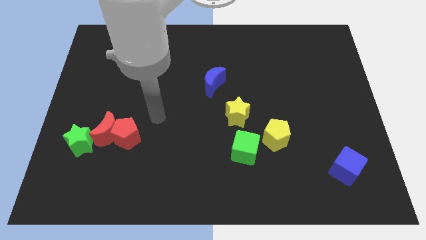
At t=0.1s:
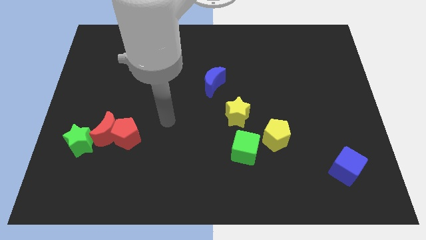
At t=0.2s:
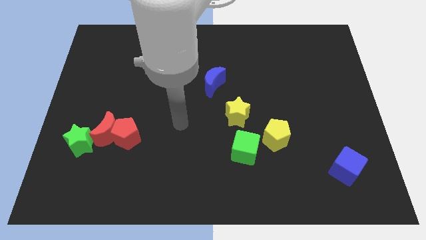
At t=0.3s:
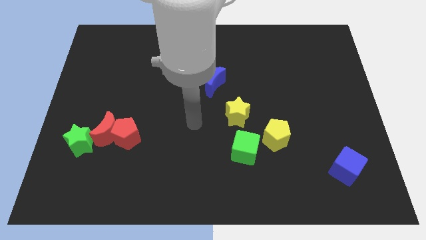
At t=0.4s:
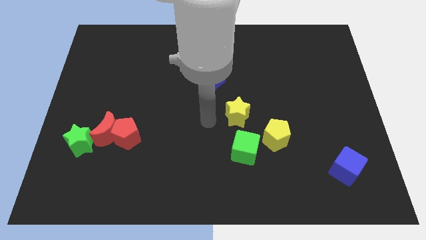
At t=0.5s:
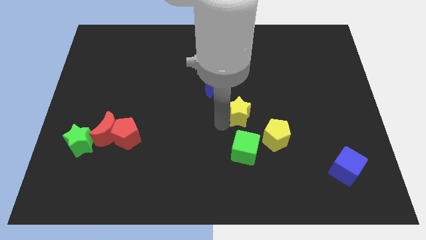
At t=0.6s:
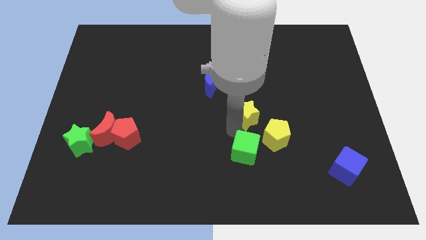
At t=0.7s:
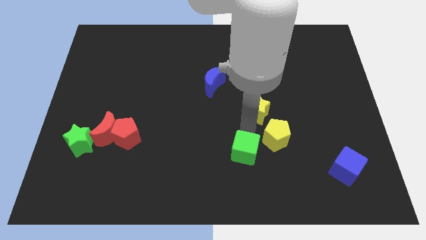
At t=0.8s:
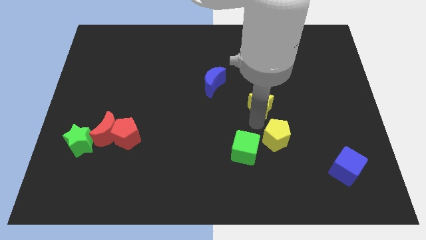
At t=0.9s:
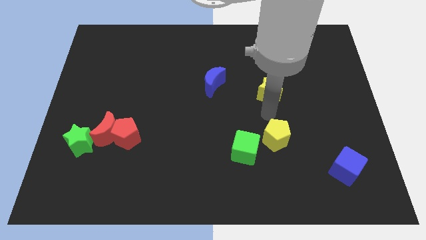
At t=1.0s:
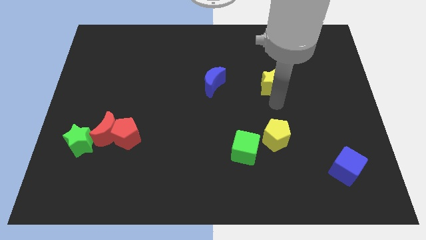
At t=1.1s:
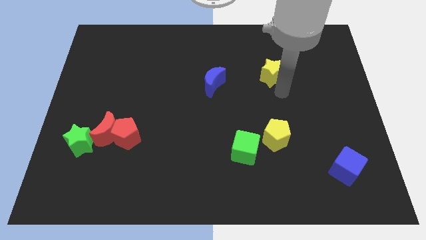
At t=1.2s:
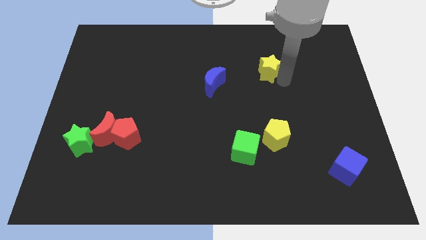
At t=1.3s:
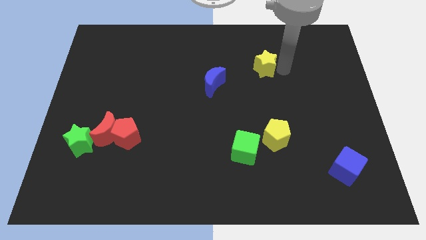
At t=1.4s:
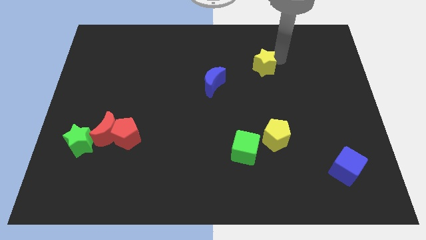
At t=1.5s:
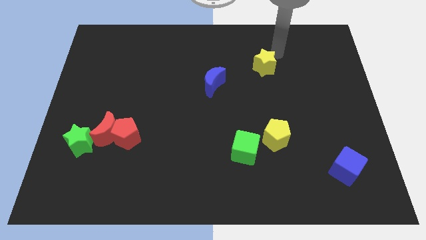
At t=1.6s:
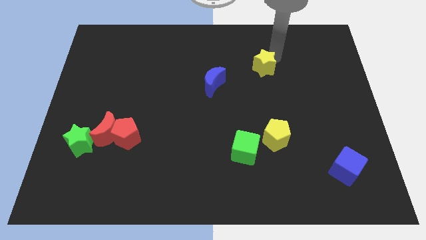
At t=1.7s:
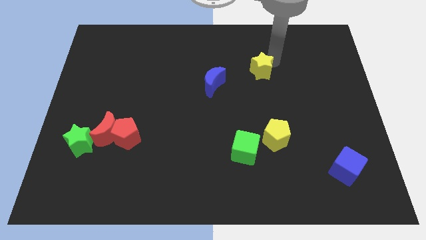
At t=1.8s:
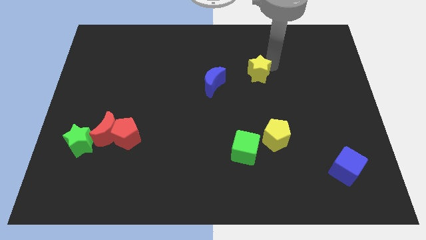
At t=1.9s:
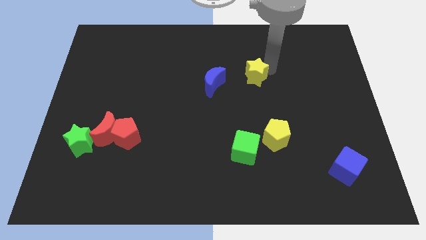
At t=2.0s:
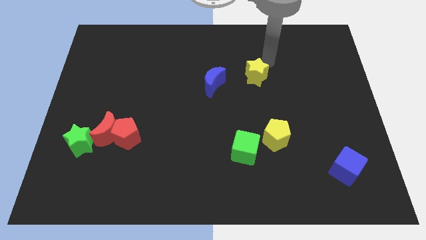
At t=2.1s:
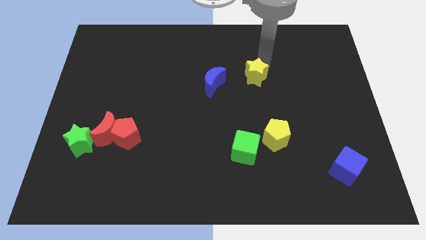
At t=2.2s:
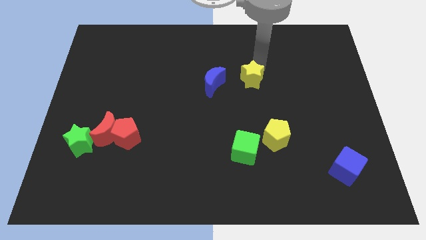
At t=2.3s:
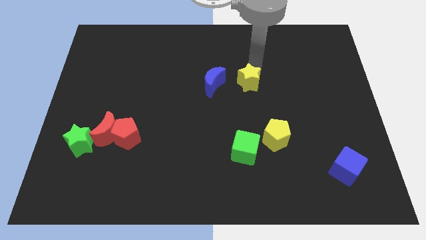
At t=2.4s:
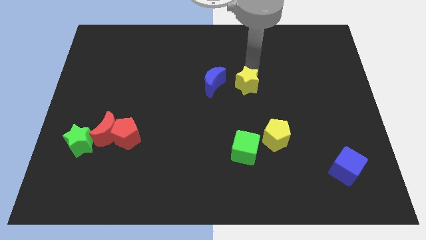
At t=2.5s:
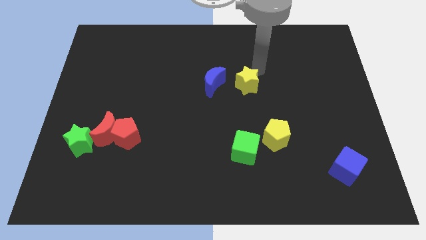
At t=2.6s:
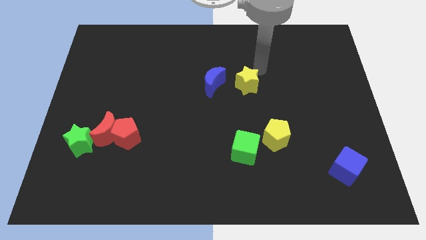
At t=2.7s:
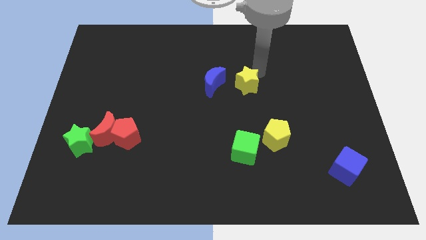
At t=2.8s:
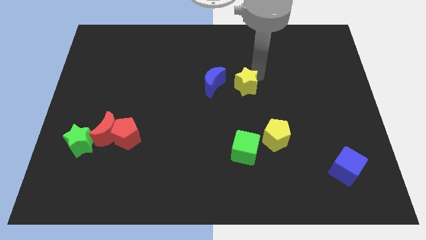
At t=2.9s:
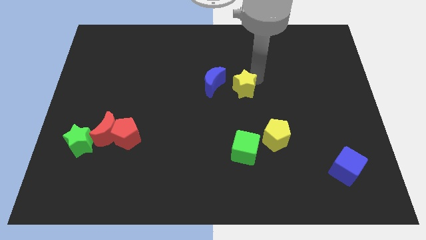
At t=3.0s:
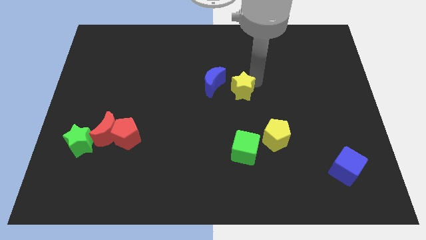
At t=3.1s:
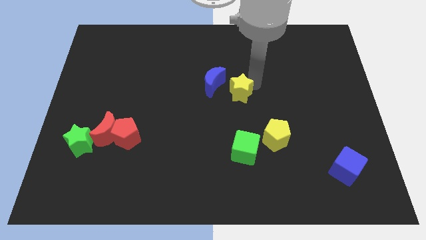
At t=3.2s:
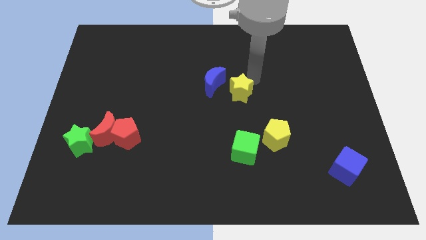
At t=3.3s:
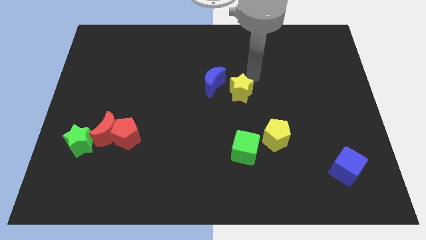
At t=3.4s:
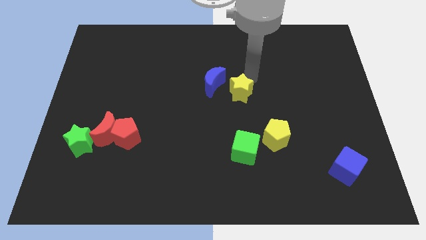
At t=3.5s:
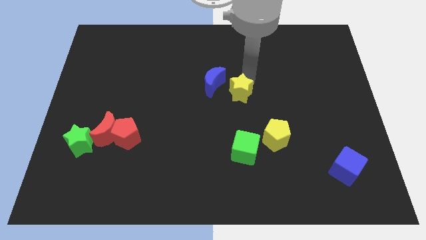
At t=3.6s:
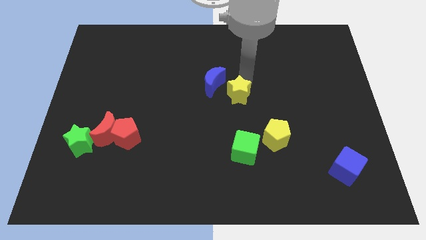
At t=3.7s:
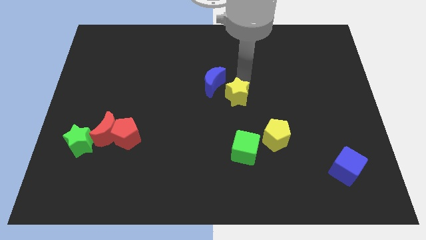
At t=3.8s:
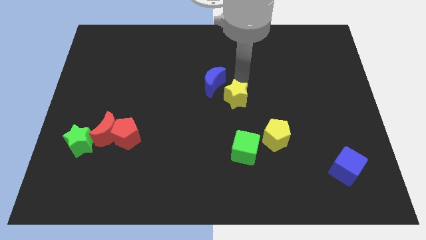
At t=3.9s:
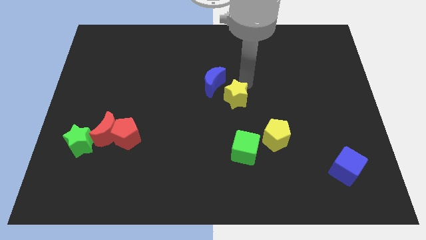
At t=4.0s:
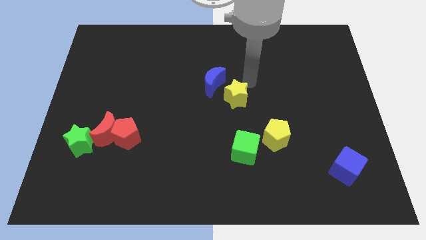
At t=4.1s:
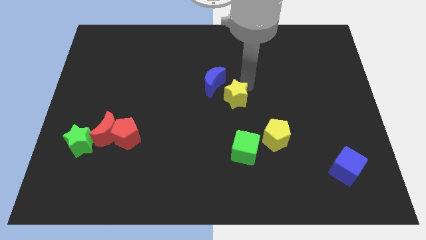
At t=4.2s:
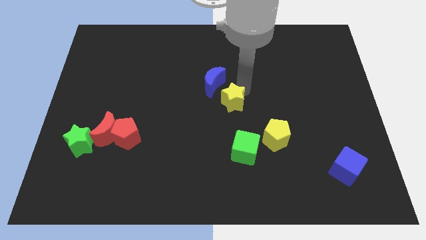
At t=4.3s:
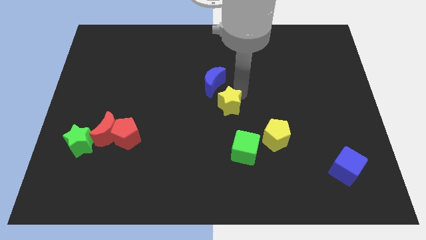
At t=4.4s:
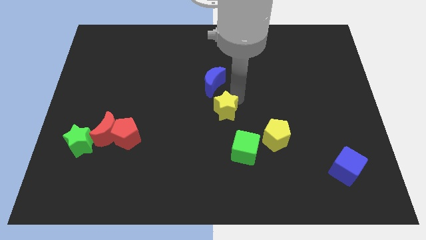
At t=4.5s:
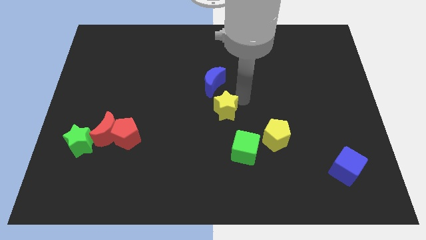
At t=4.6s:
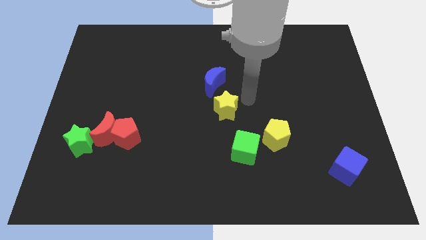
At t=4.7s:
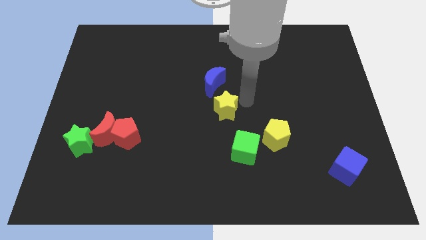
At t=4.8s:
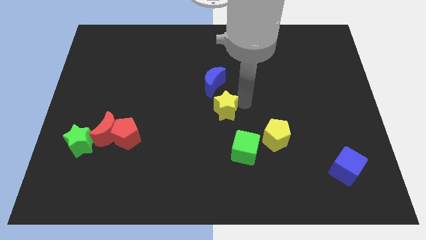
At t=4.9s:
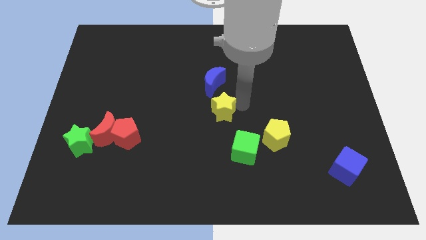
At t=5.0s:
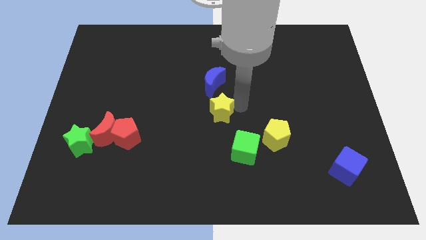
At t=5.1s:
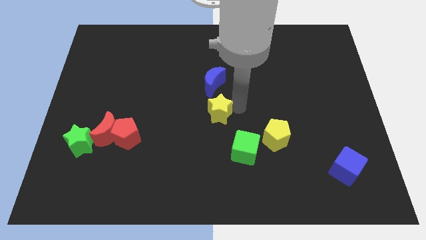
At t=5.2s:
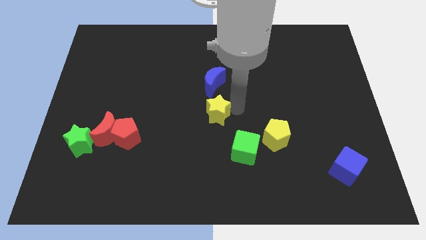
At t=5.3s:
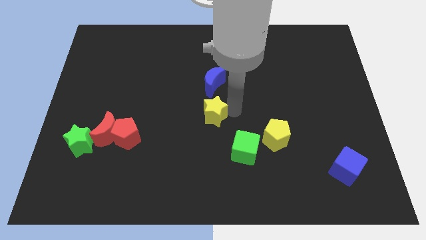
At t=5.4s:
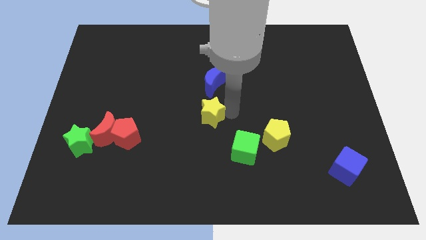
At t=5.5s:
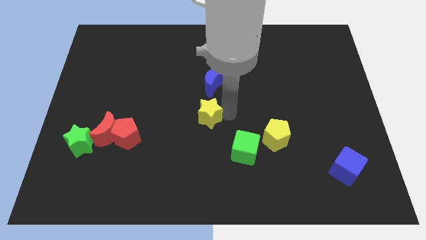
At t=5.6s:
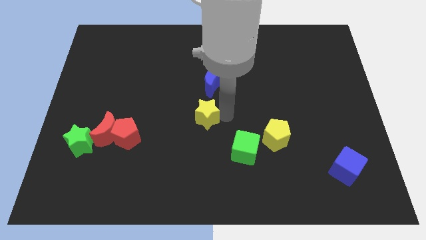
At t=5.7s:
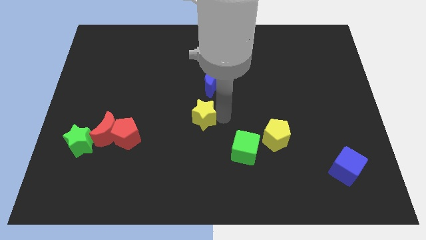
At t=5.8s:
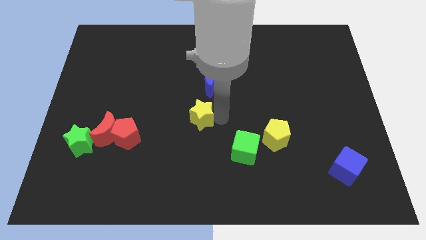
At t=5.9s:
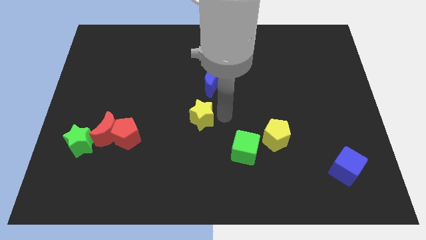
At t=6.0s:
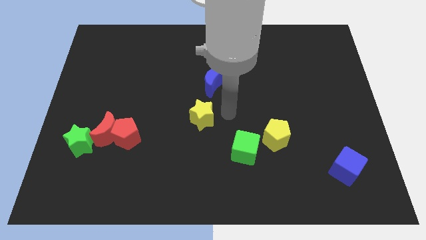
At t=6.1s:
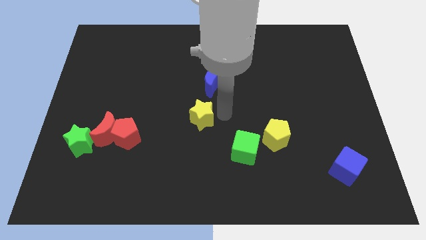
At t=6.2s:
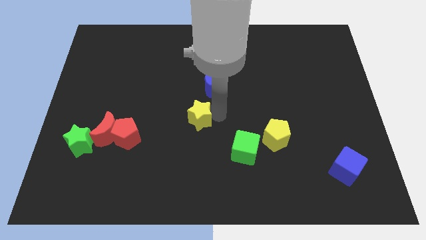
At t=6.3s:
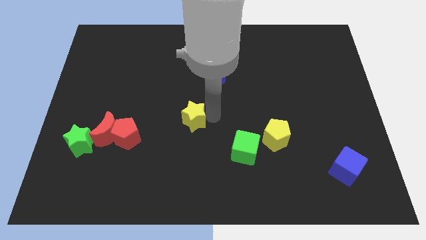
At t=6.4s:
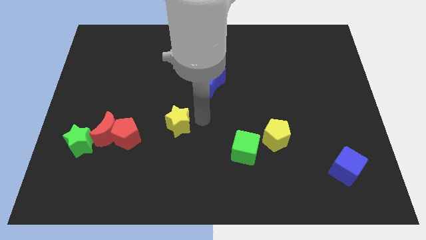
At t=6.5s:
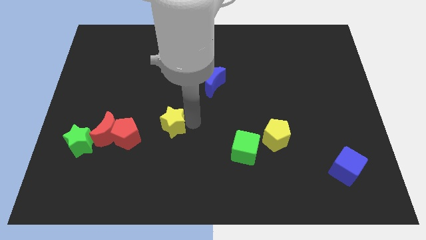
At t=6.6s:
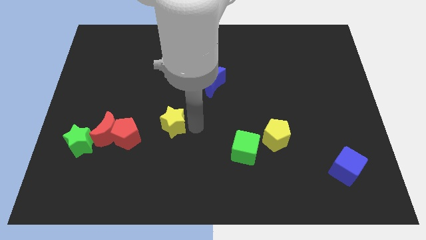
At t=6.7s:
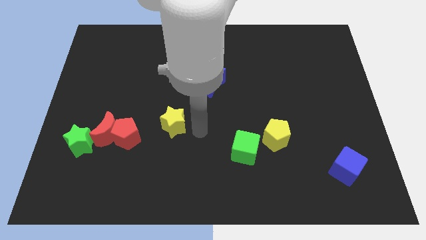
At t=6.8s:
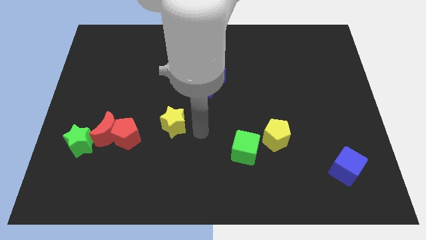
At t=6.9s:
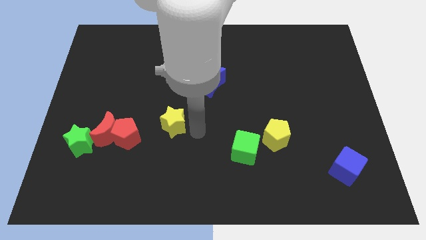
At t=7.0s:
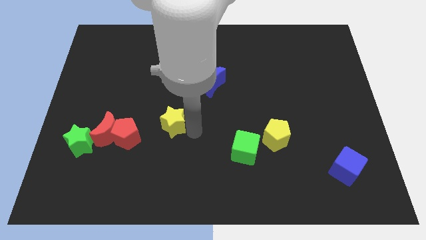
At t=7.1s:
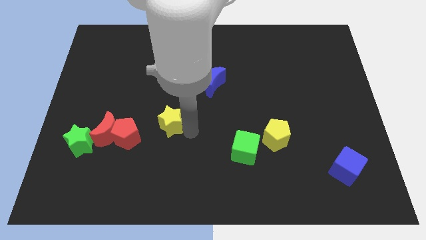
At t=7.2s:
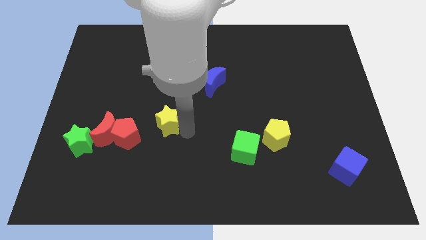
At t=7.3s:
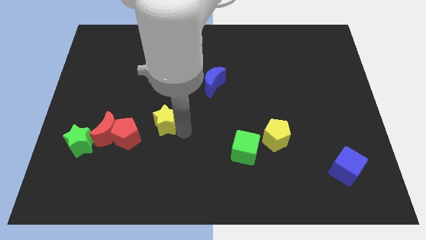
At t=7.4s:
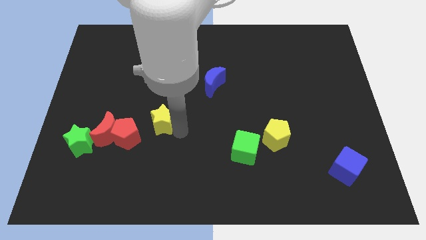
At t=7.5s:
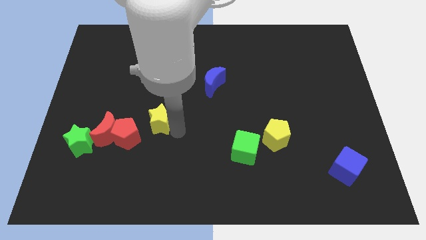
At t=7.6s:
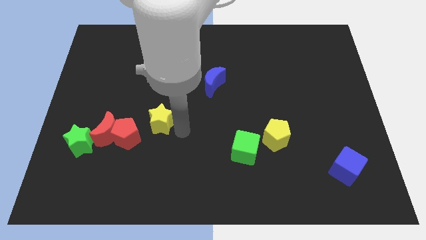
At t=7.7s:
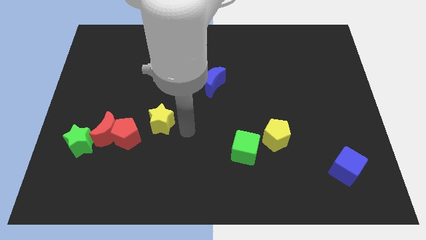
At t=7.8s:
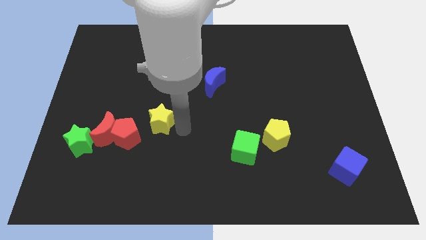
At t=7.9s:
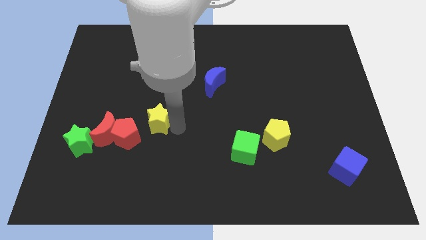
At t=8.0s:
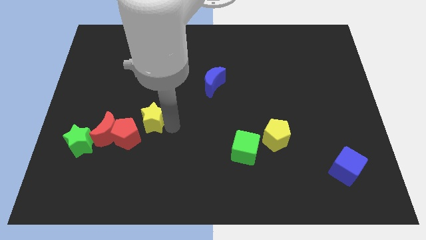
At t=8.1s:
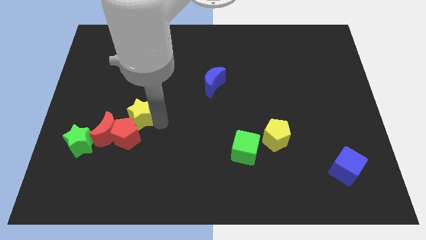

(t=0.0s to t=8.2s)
push the yellow star to the left
